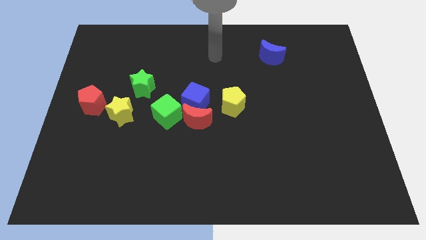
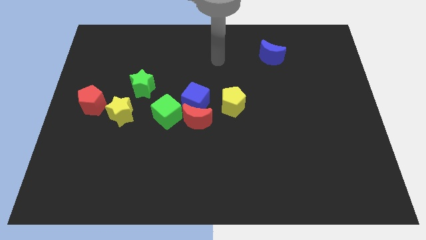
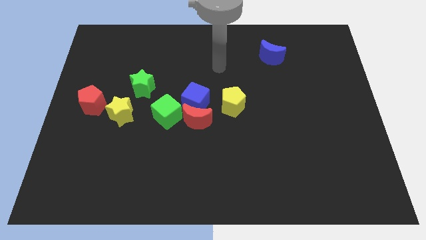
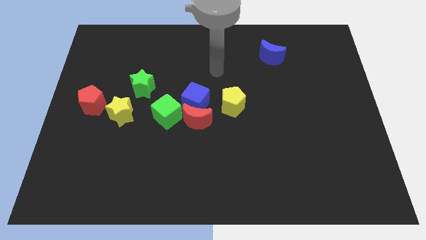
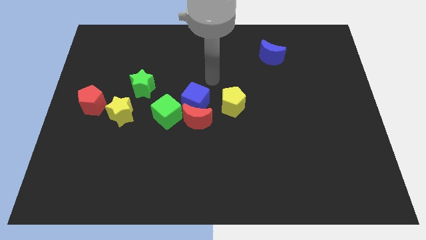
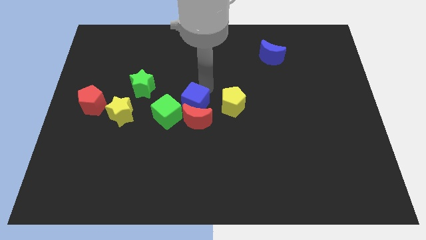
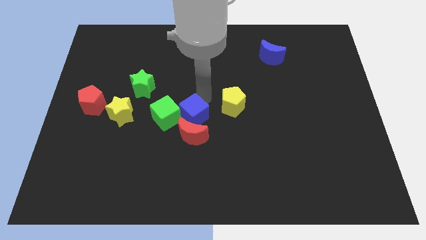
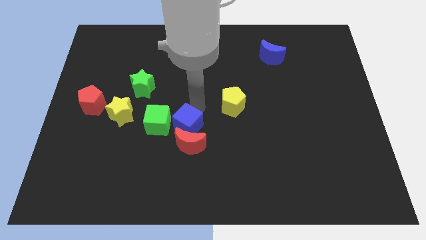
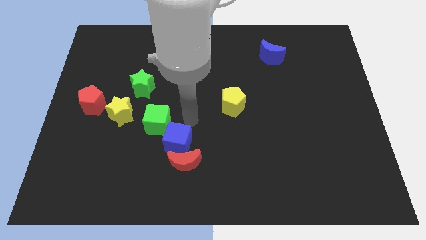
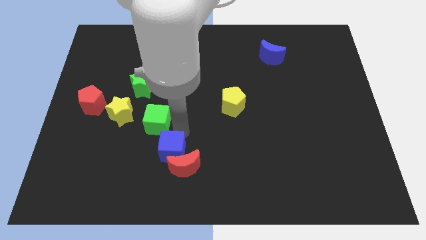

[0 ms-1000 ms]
separate the green cube from the red moon and blue cube

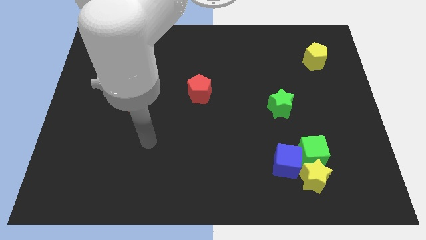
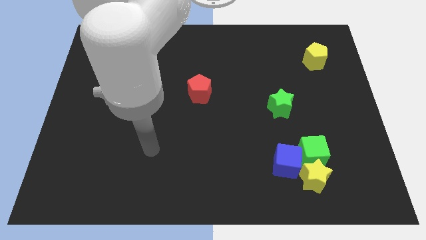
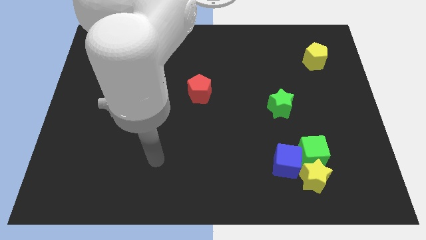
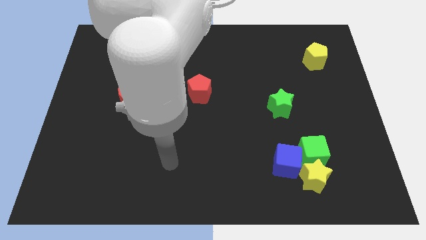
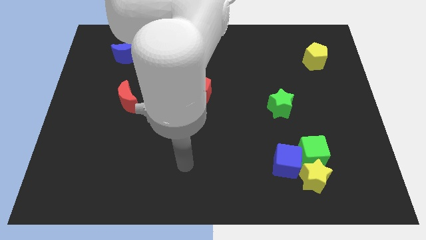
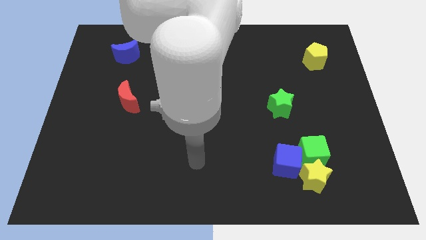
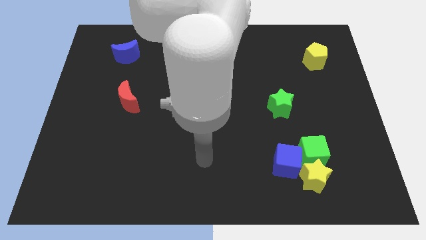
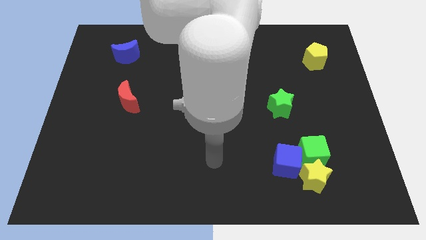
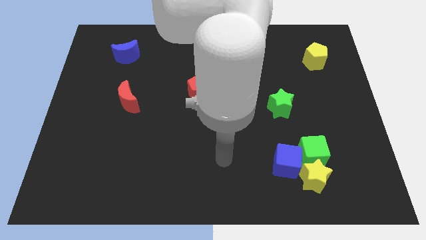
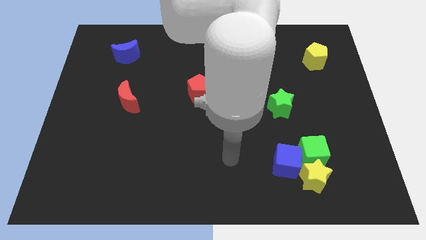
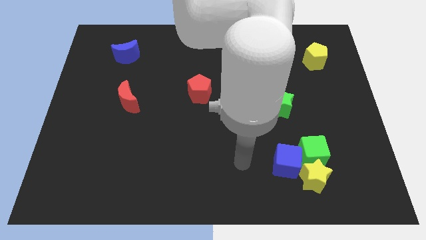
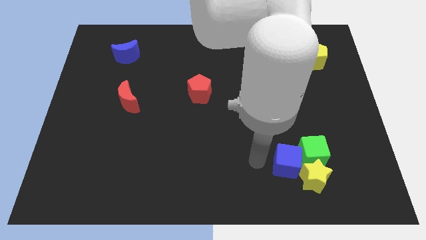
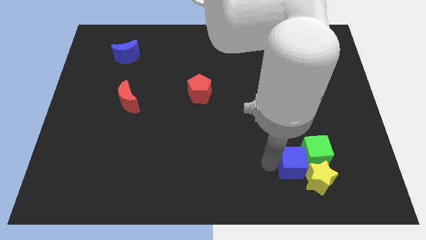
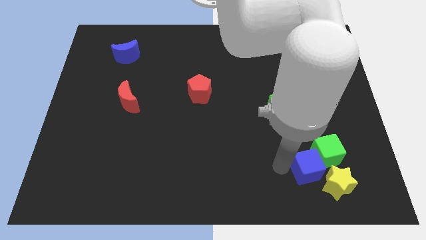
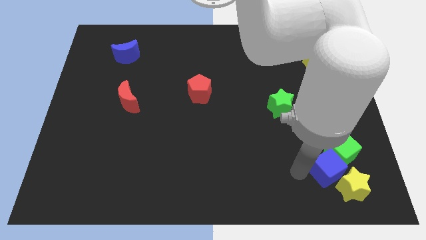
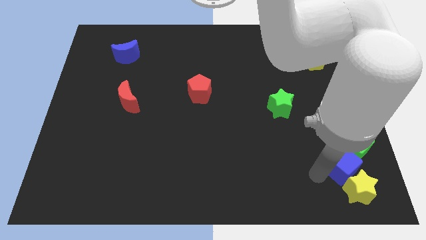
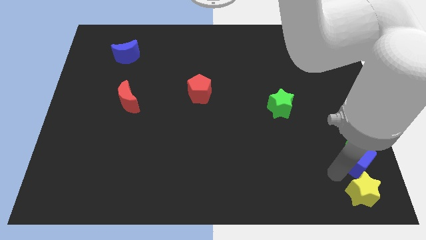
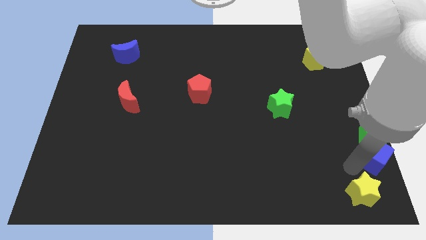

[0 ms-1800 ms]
separate the green cube from the yellow star and blue cube

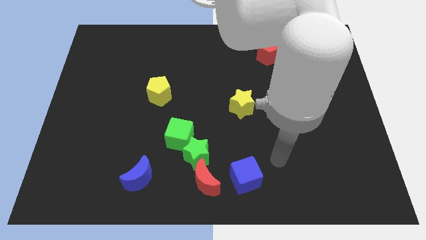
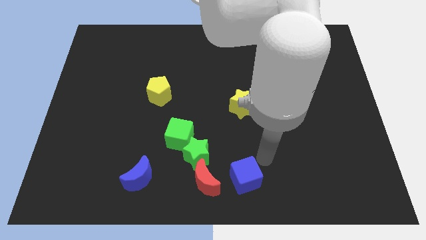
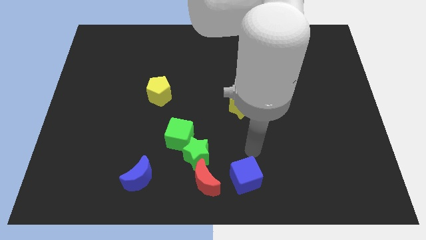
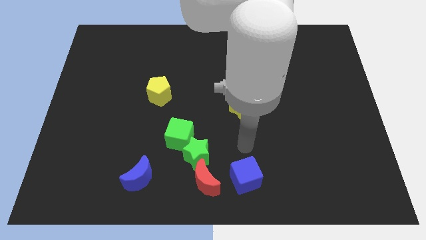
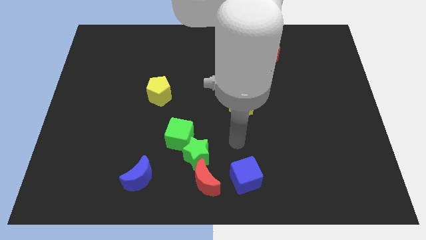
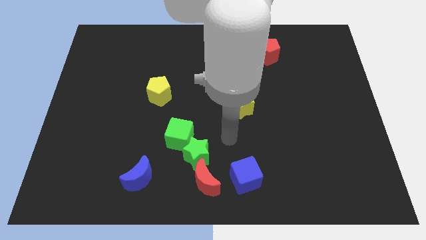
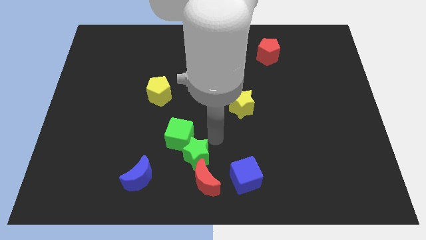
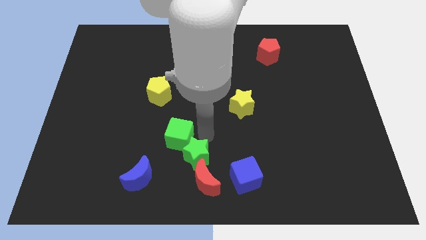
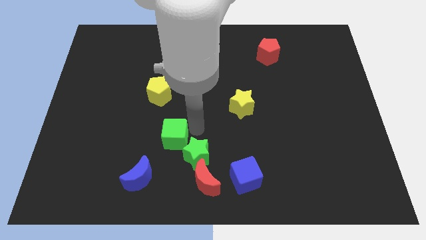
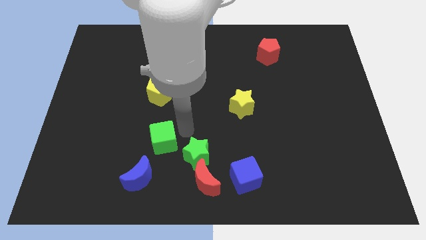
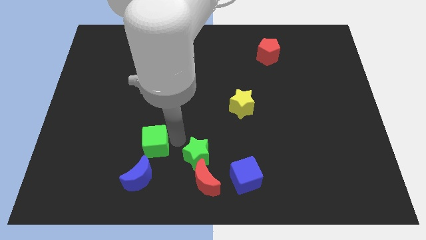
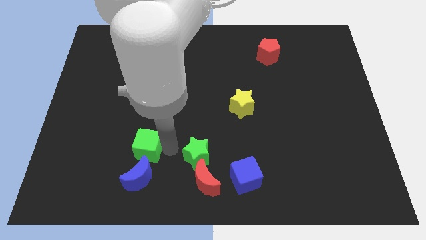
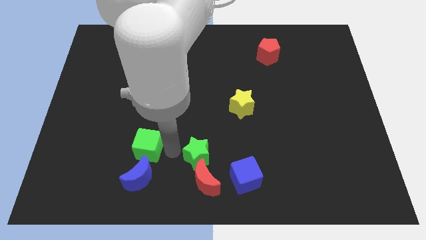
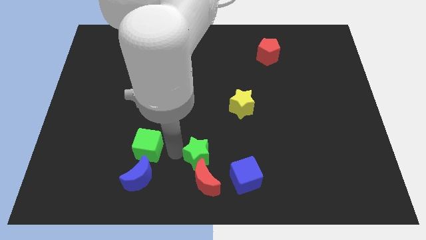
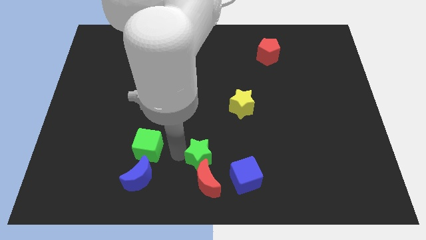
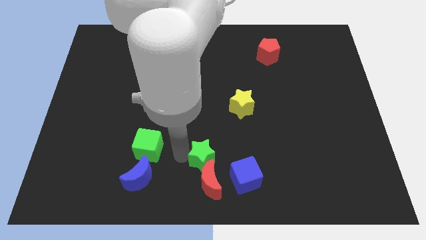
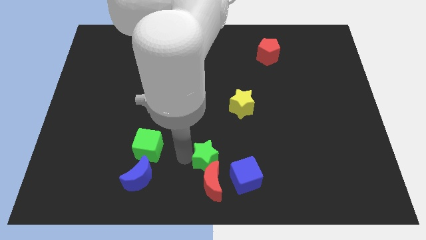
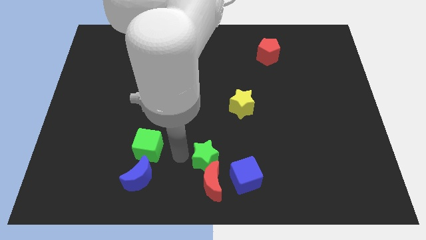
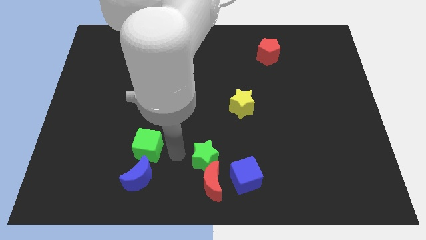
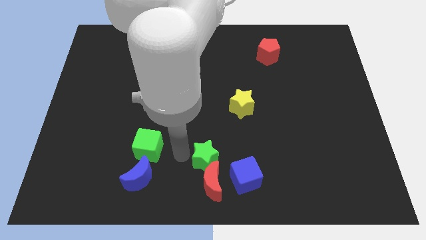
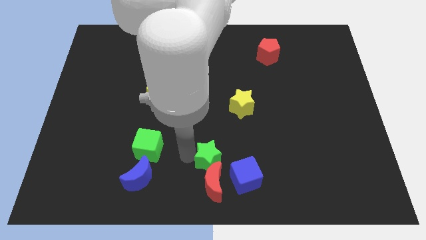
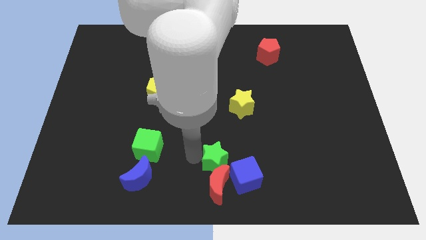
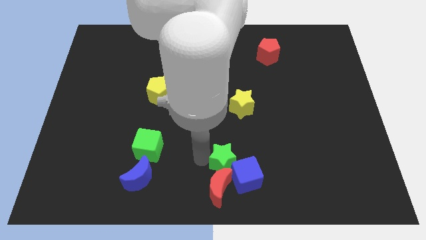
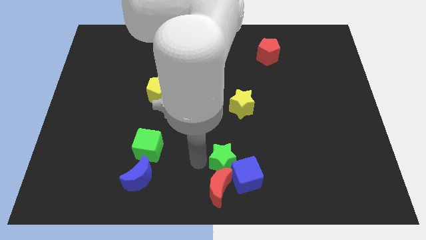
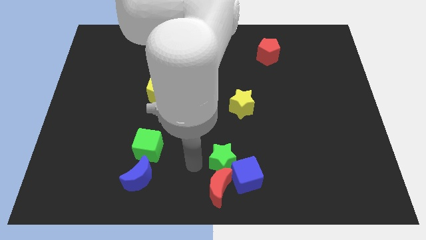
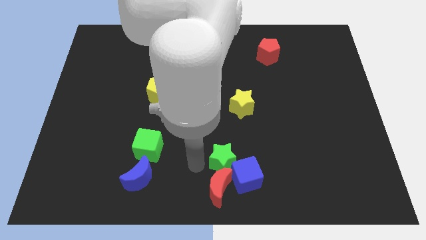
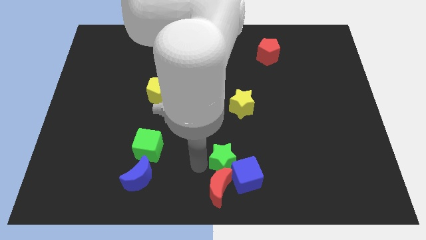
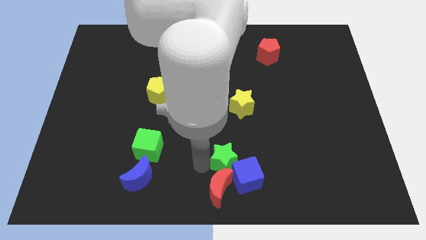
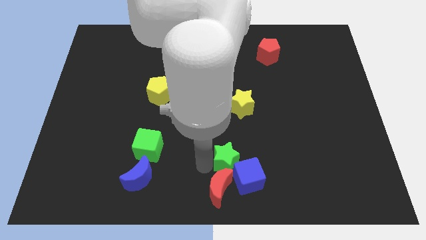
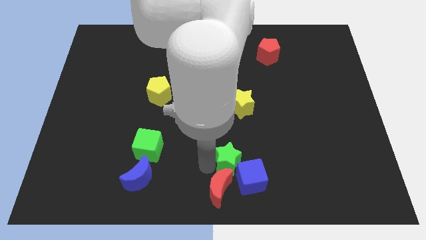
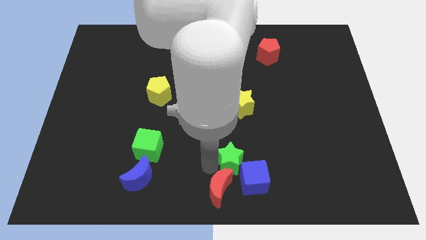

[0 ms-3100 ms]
pull the green star apart from the red moon and green cube

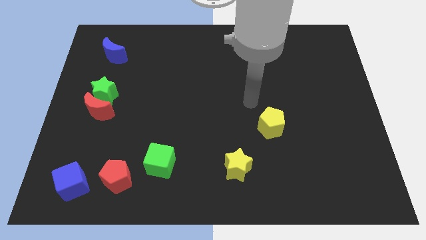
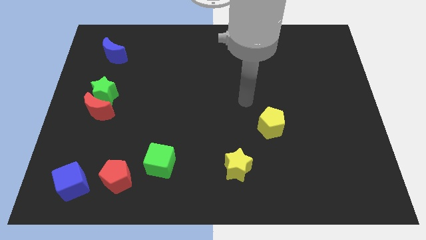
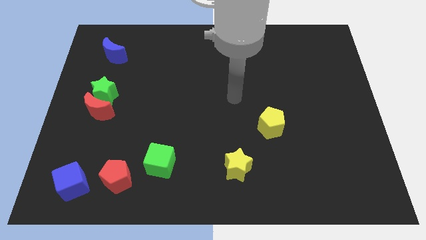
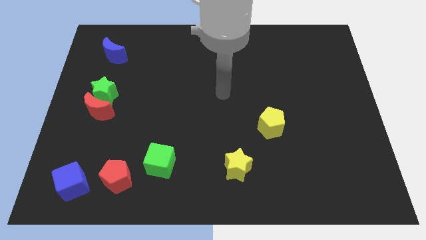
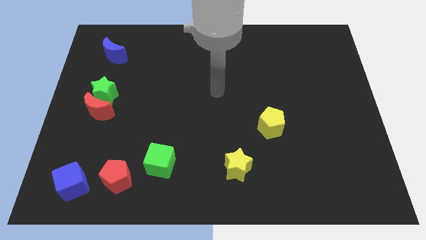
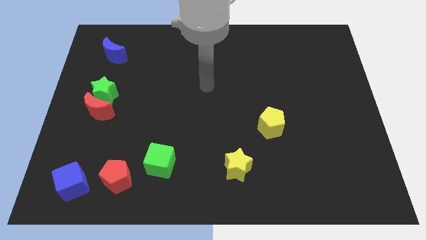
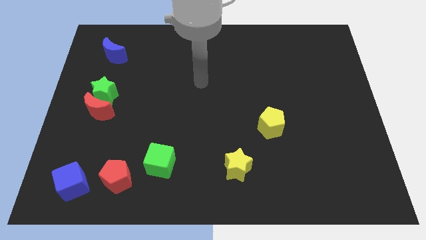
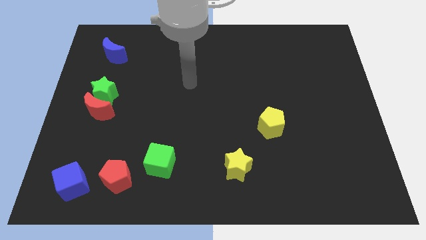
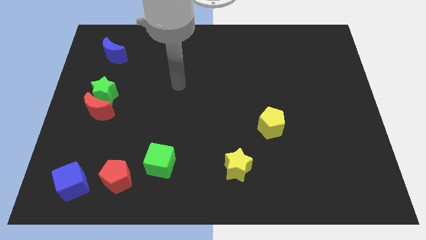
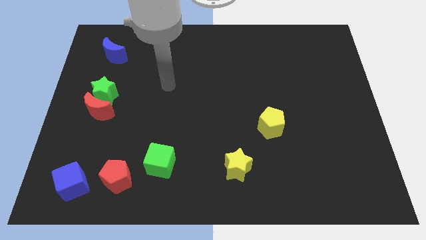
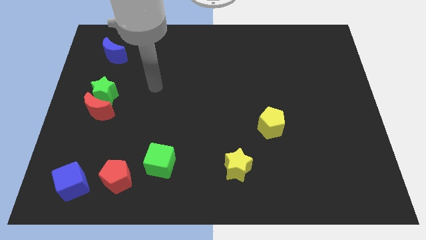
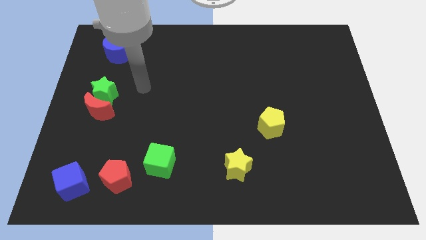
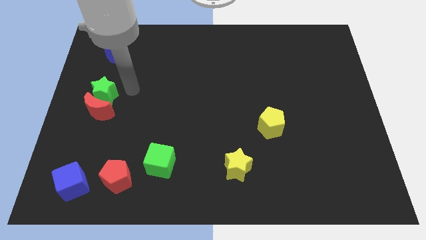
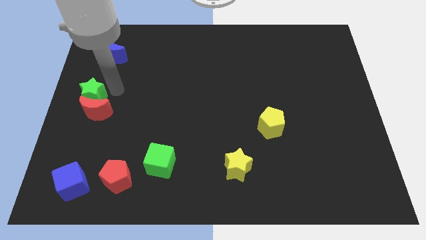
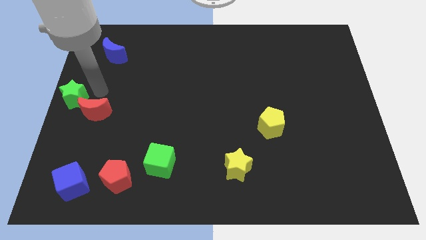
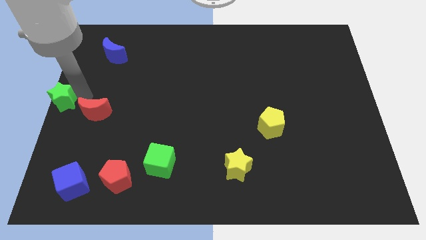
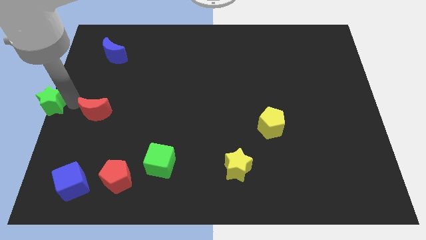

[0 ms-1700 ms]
pull the red moon apart from the green star

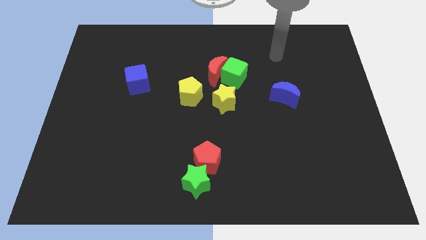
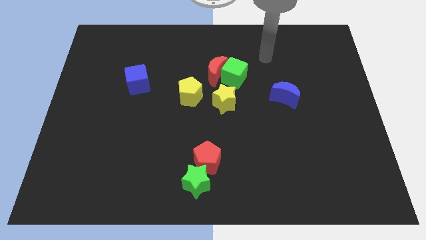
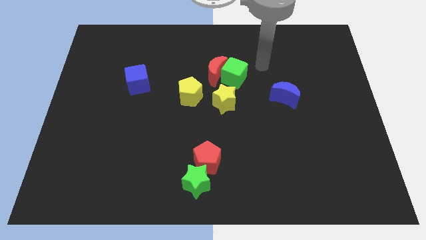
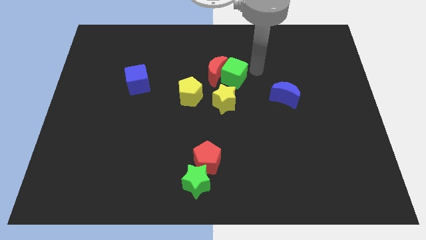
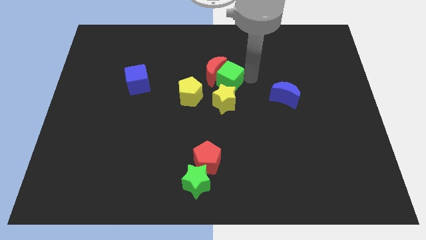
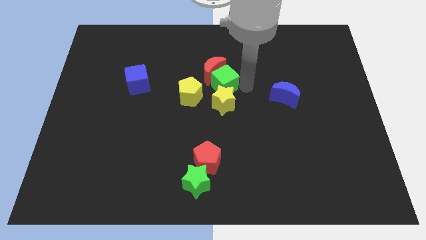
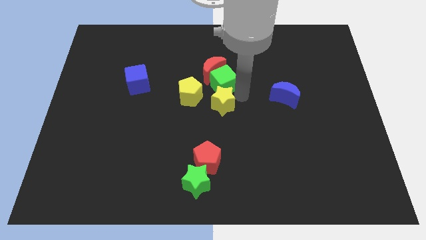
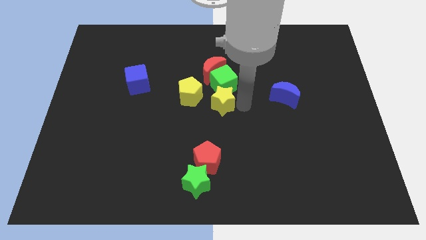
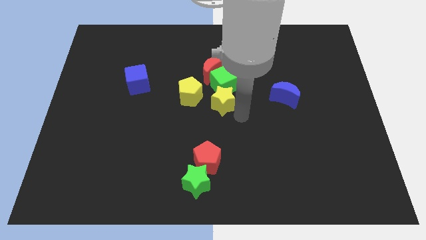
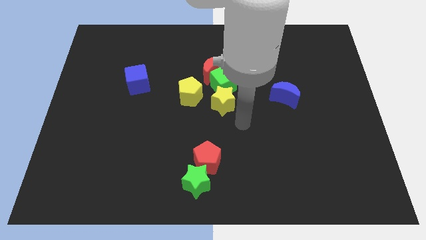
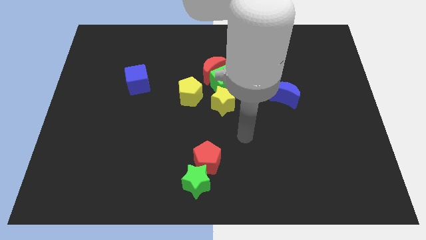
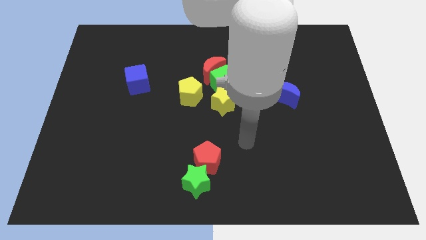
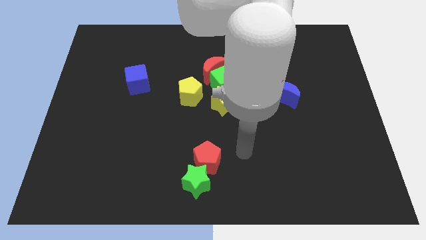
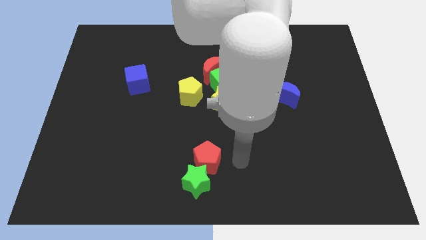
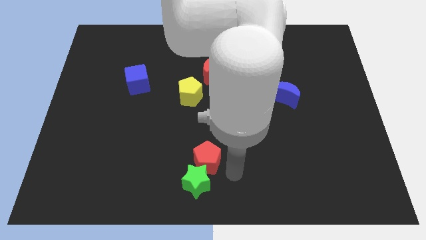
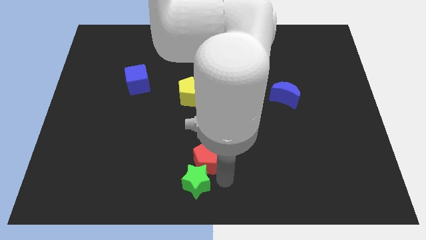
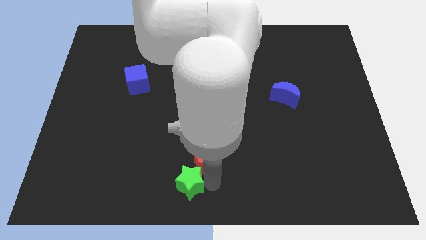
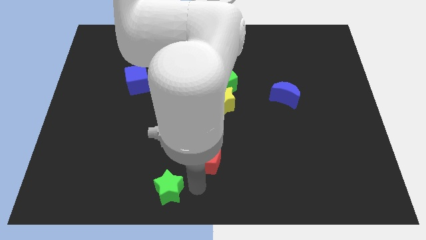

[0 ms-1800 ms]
separate the red pentagon from the green star
